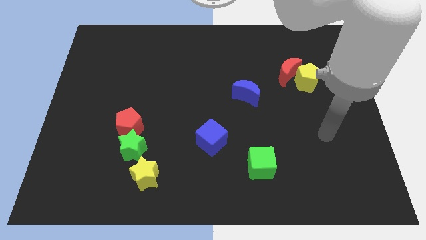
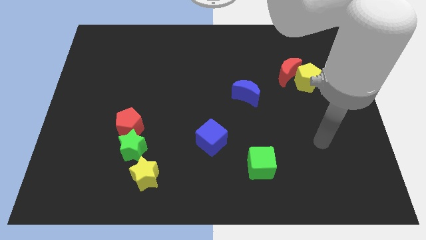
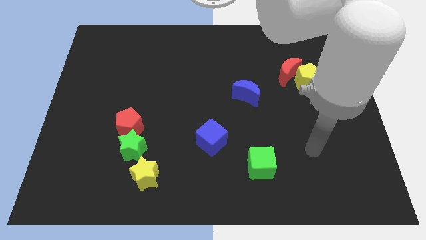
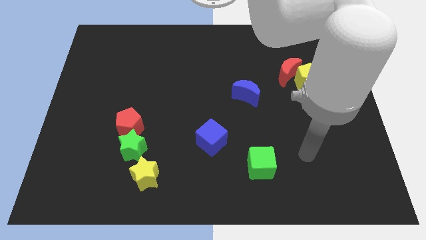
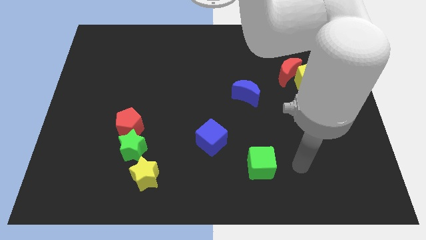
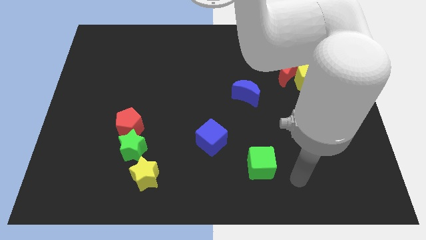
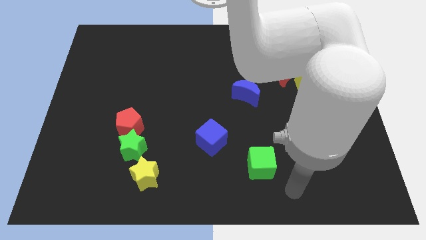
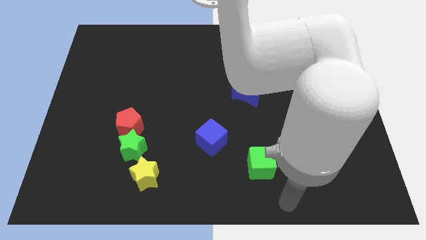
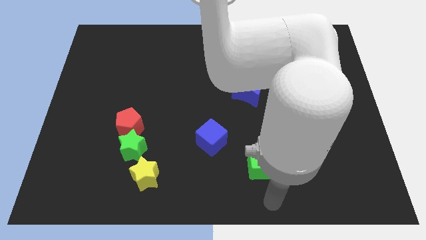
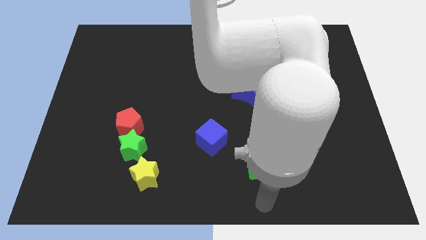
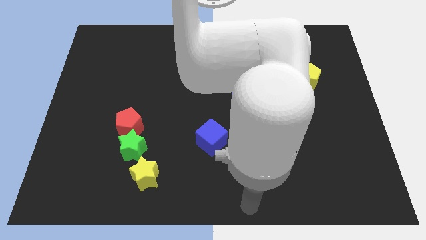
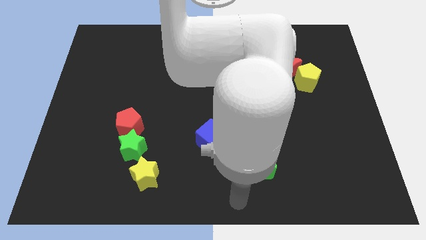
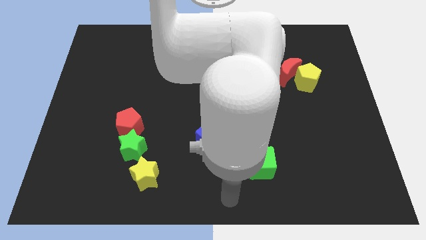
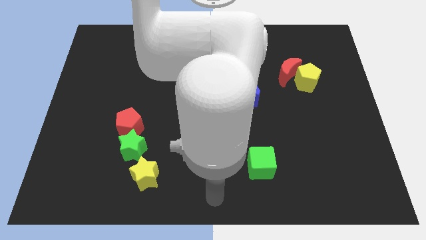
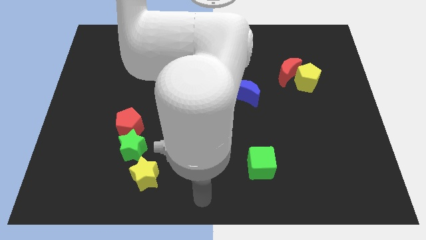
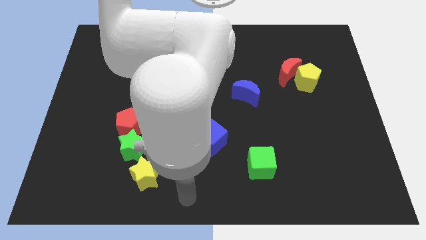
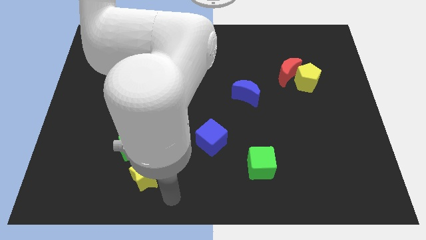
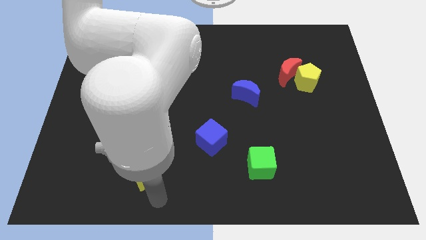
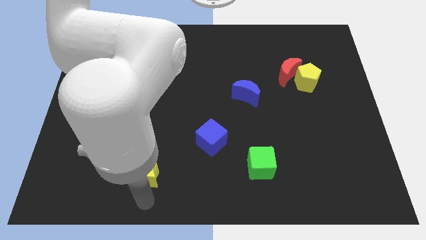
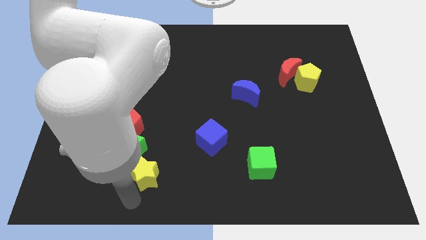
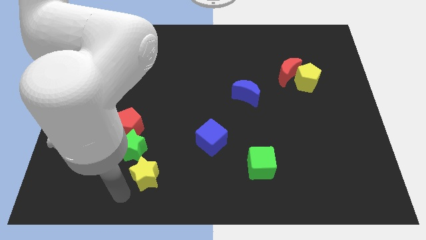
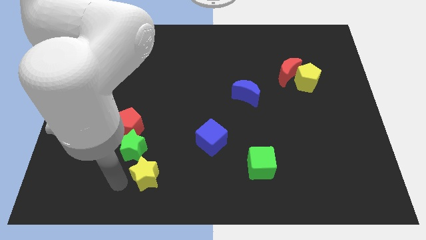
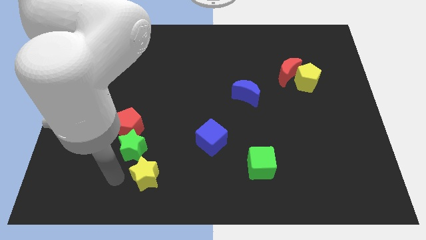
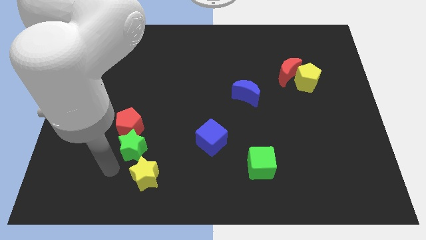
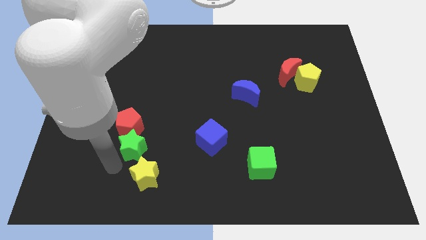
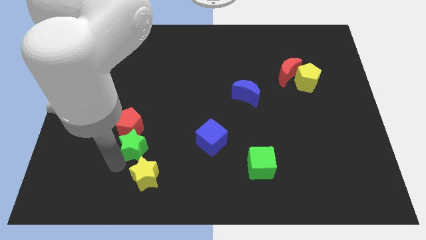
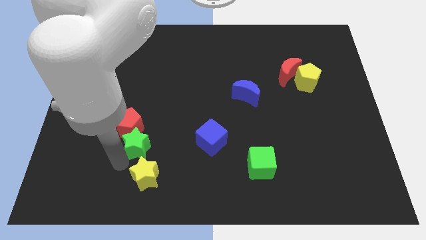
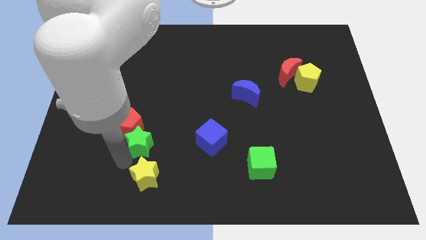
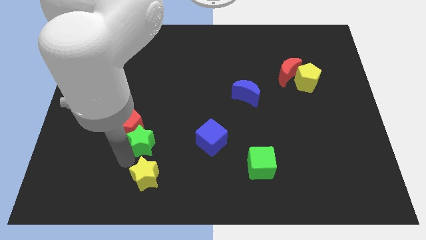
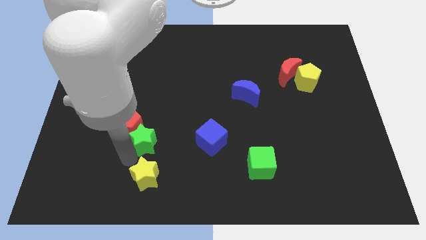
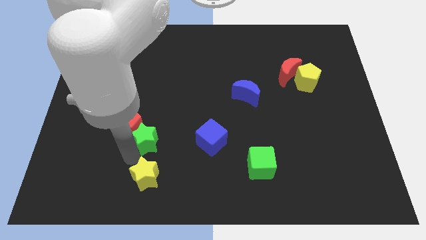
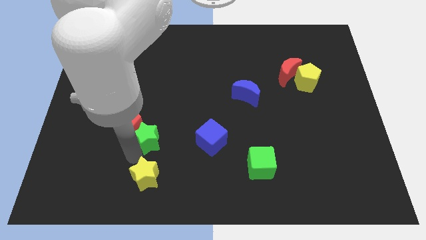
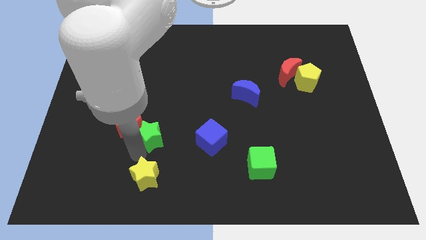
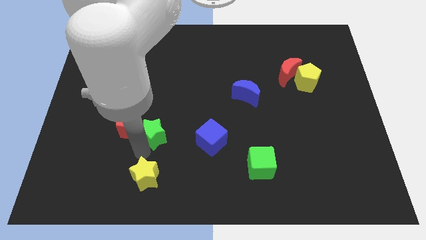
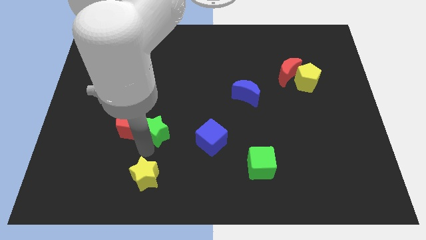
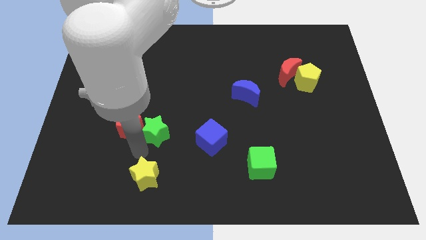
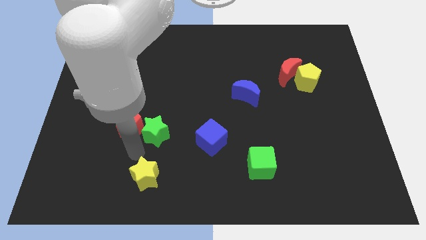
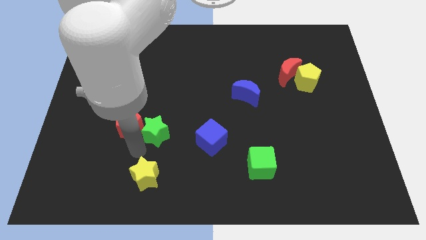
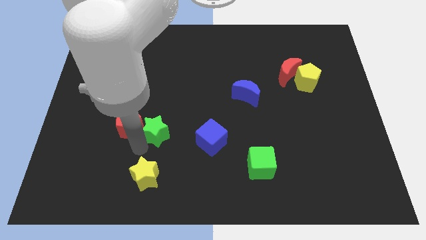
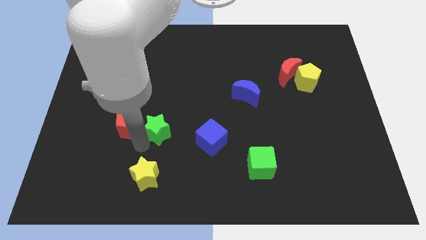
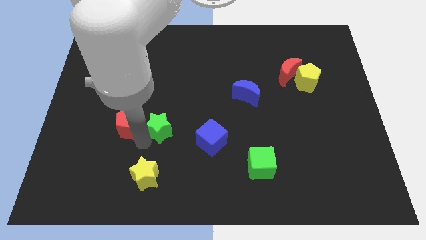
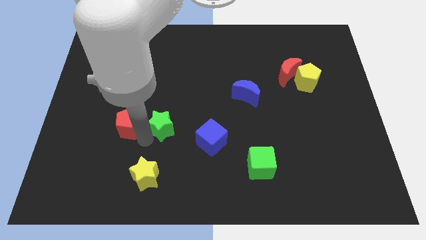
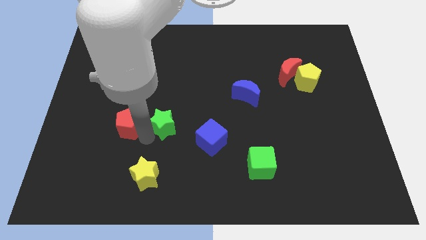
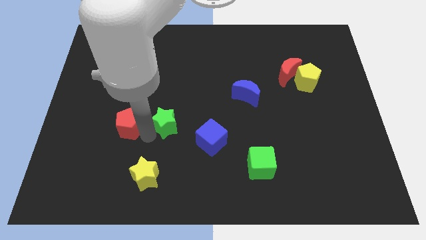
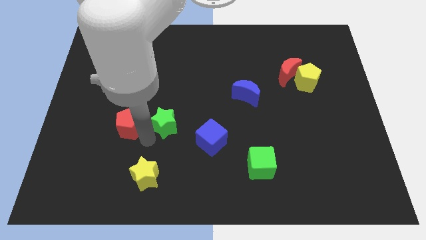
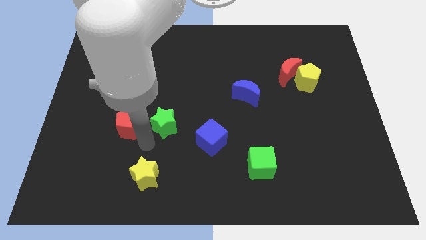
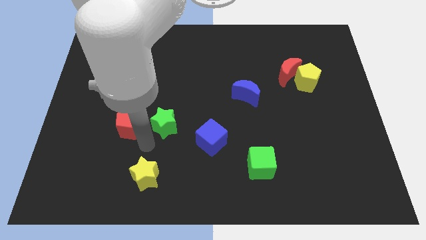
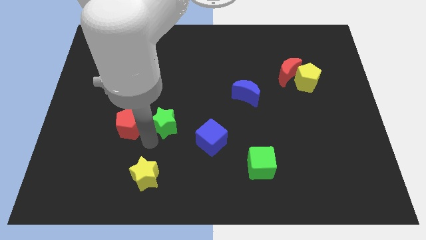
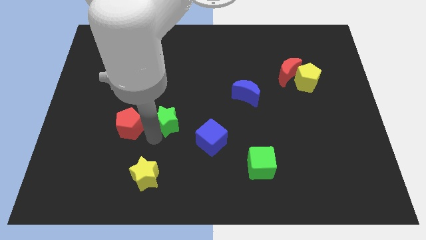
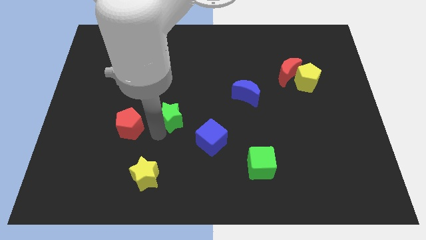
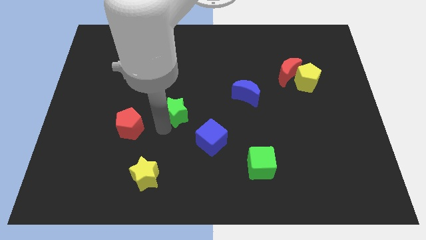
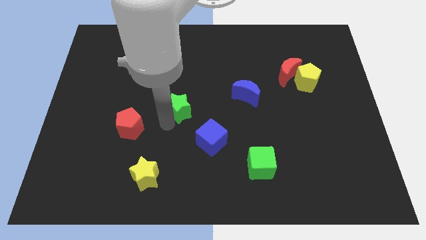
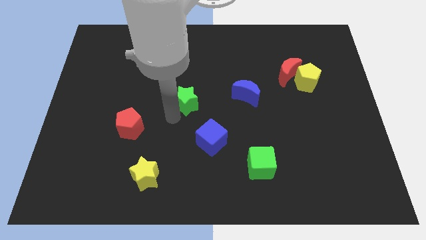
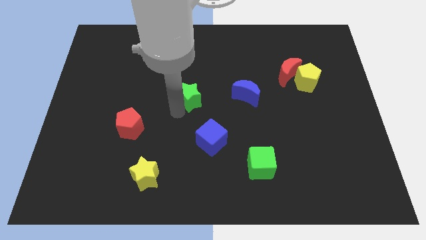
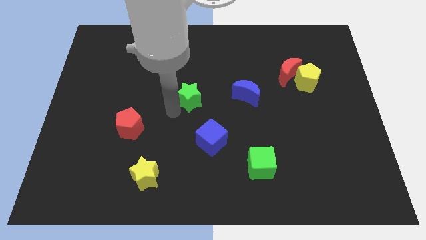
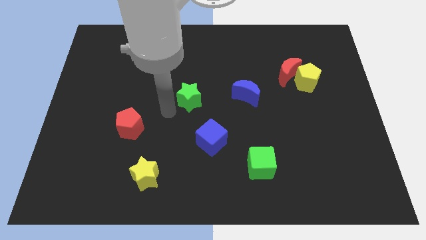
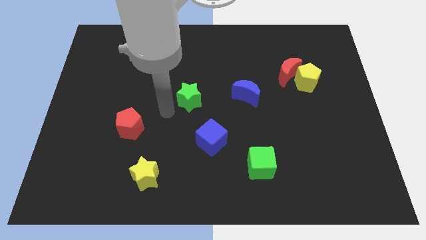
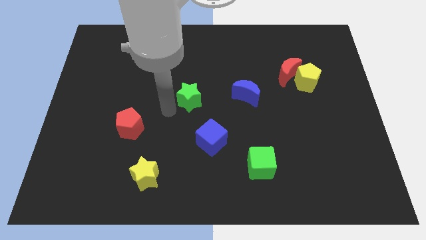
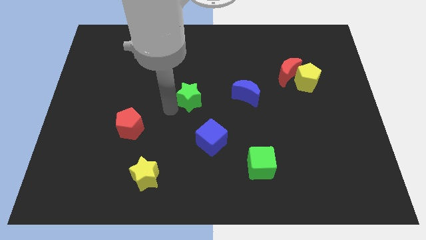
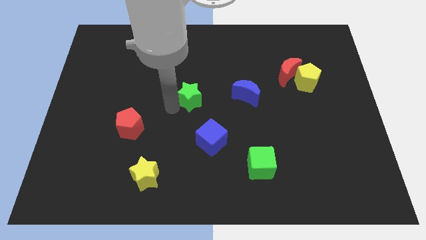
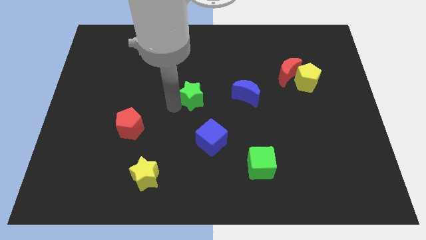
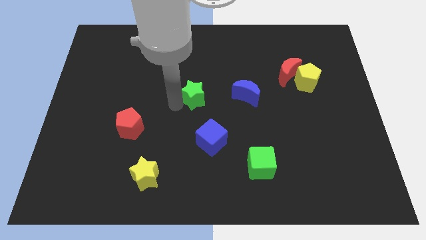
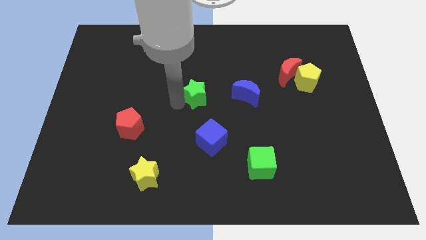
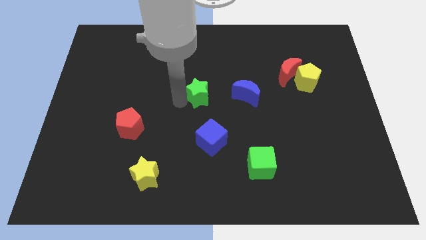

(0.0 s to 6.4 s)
move the green star upwards and right

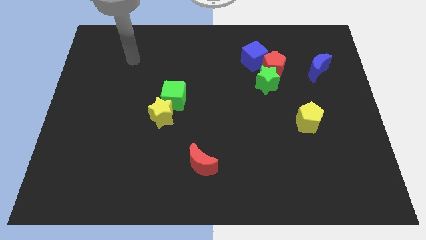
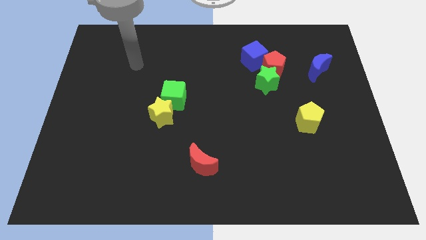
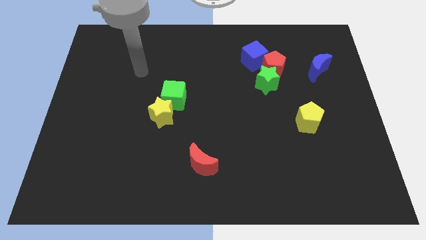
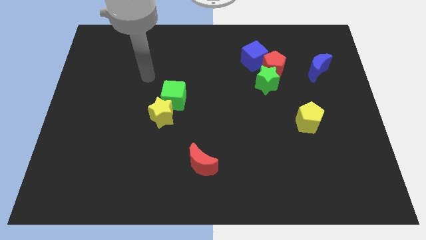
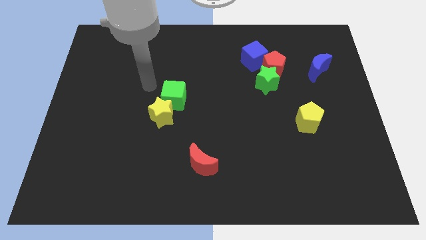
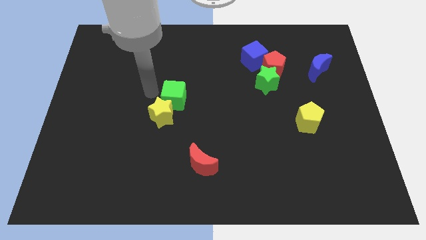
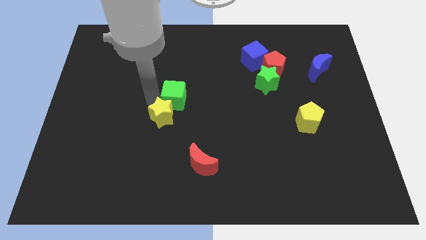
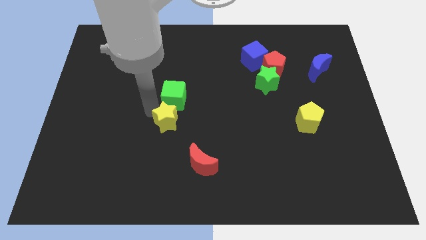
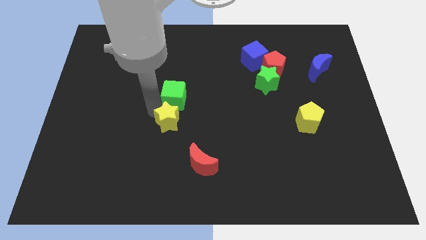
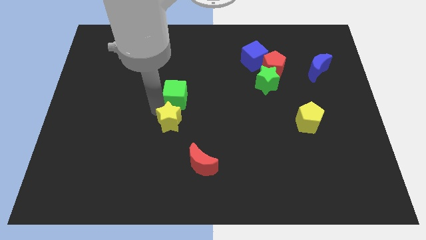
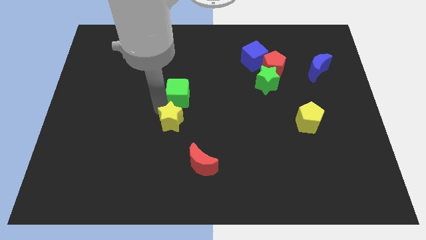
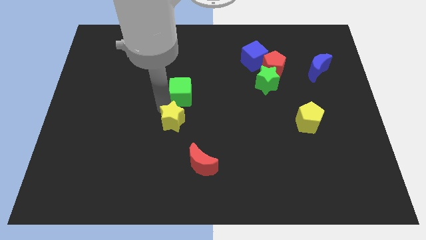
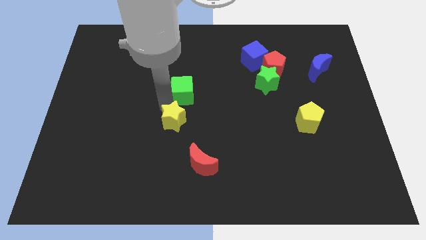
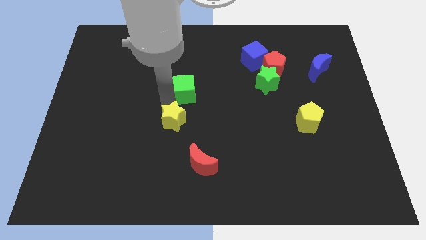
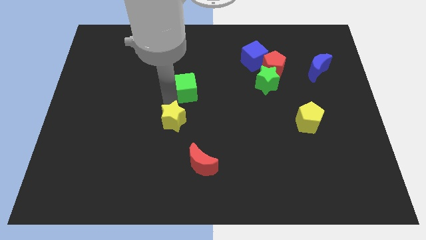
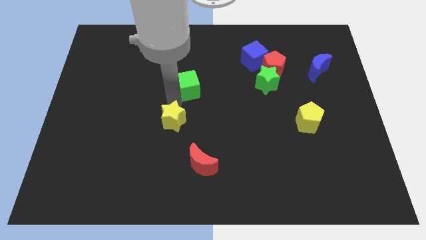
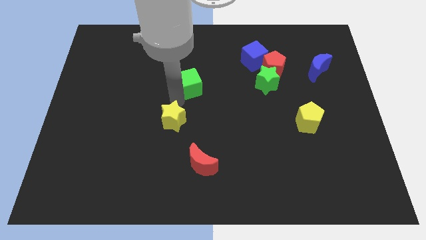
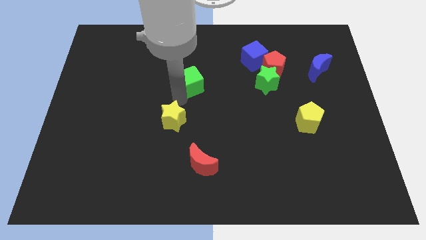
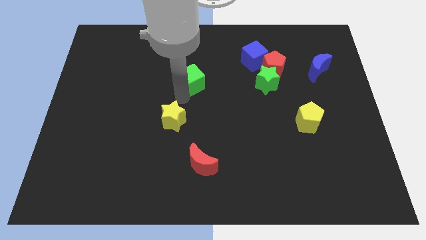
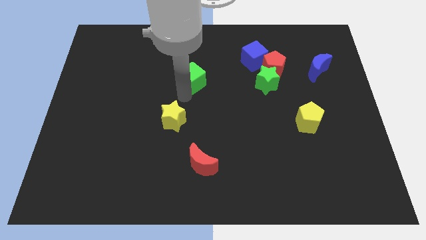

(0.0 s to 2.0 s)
slide the green cube up and right diagonally a little
